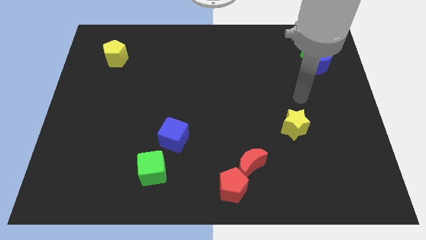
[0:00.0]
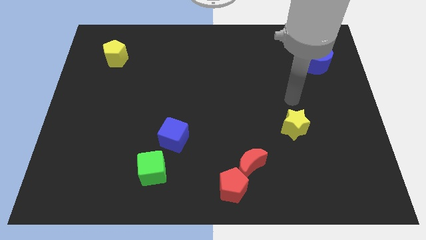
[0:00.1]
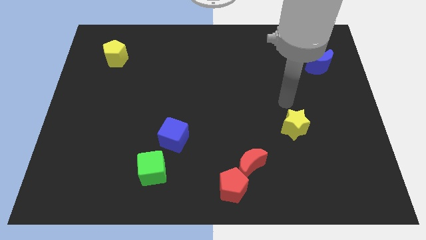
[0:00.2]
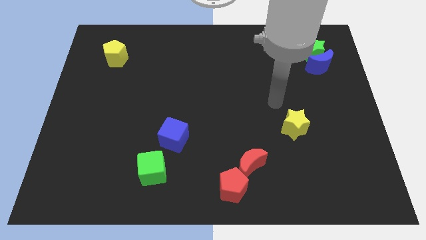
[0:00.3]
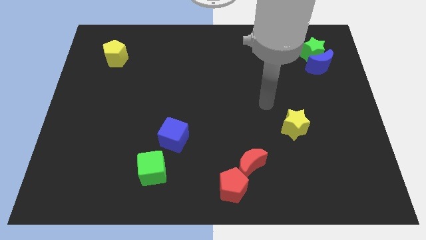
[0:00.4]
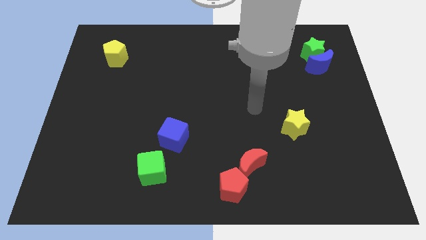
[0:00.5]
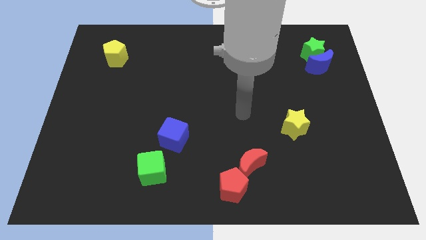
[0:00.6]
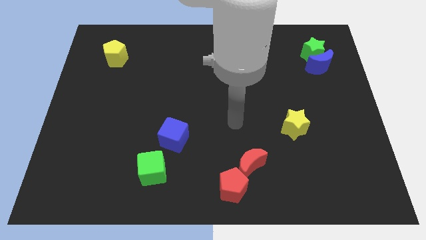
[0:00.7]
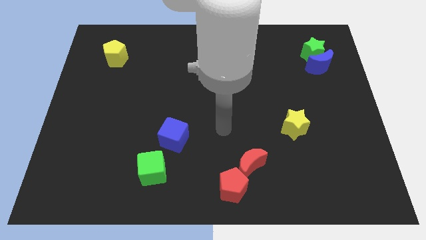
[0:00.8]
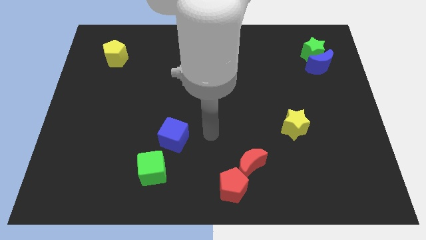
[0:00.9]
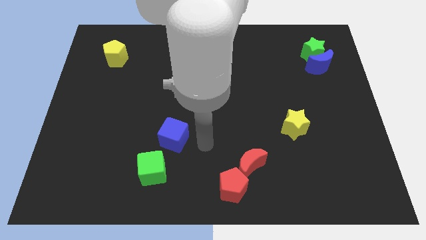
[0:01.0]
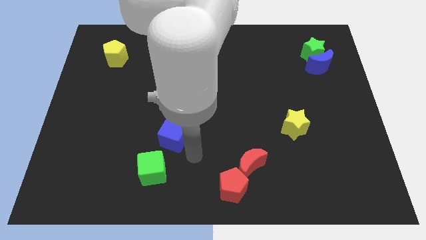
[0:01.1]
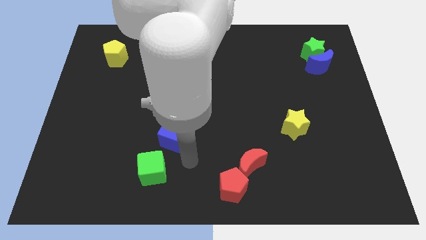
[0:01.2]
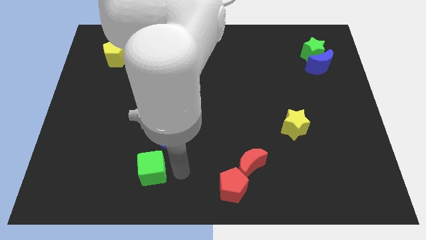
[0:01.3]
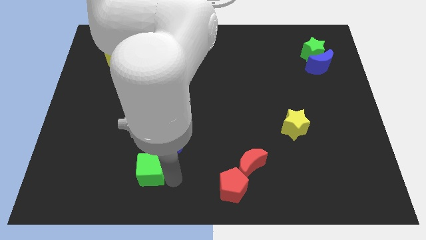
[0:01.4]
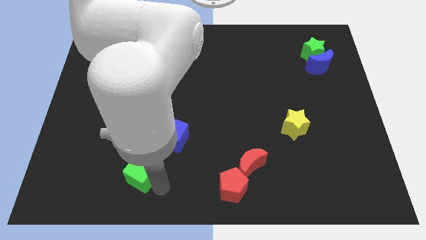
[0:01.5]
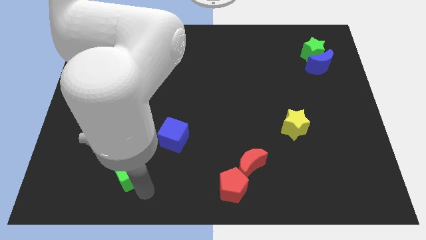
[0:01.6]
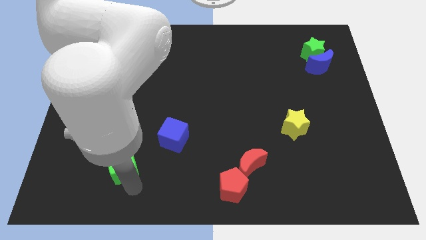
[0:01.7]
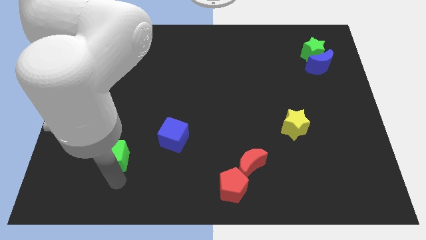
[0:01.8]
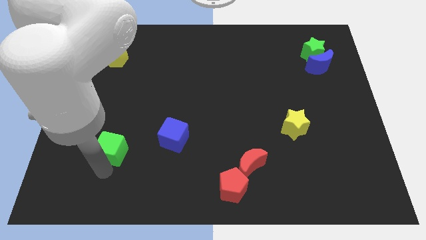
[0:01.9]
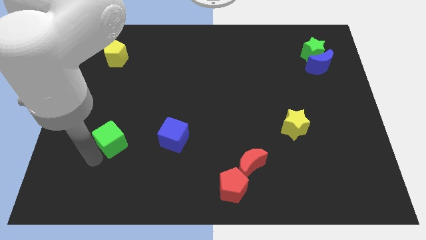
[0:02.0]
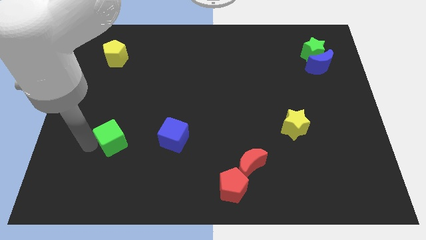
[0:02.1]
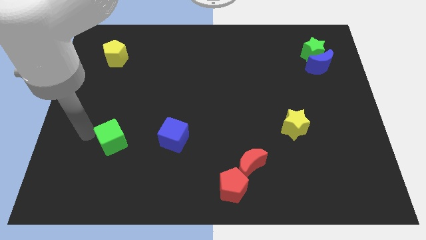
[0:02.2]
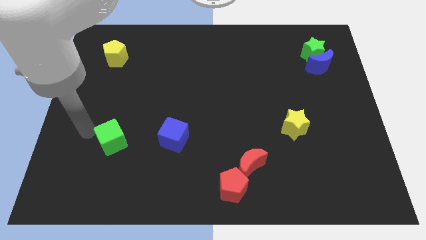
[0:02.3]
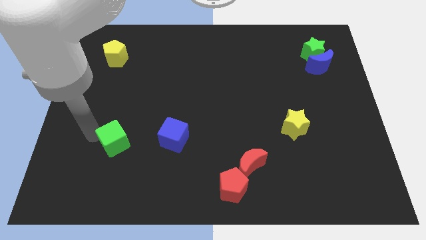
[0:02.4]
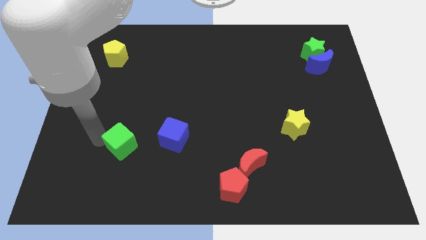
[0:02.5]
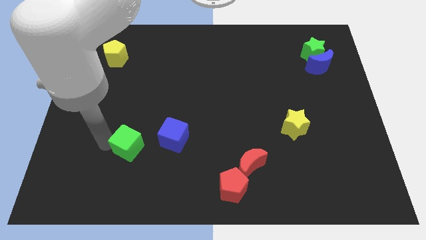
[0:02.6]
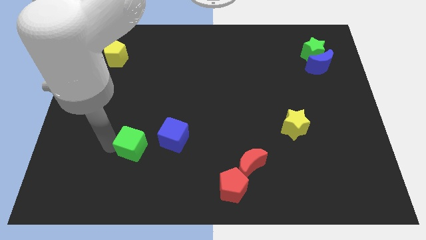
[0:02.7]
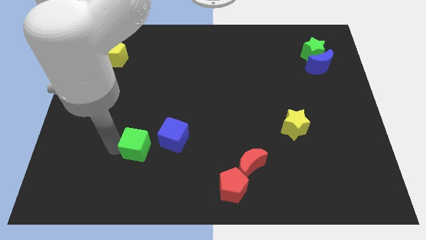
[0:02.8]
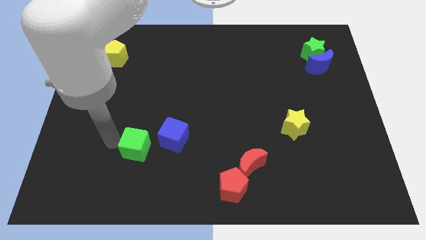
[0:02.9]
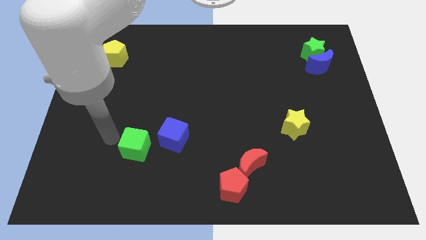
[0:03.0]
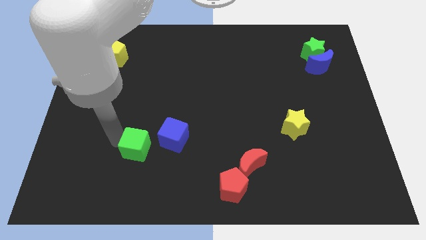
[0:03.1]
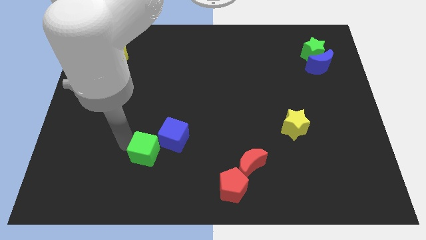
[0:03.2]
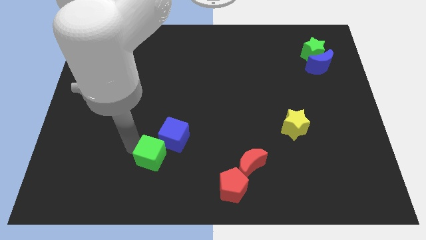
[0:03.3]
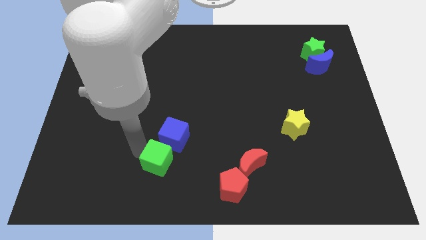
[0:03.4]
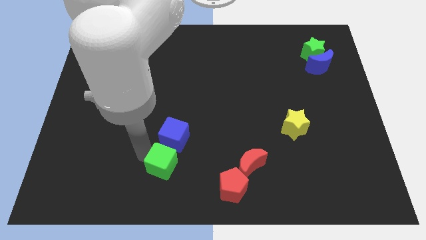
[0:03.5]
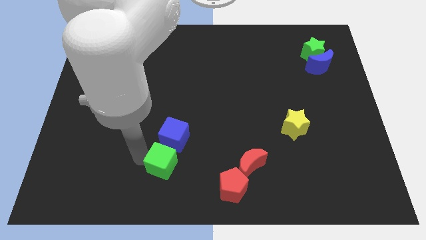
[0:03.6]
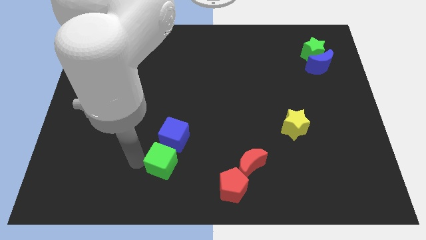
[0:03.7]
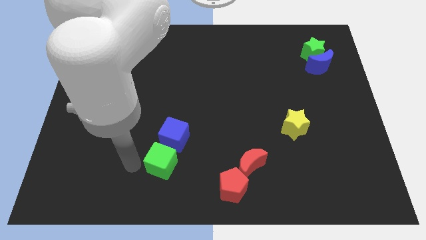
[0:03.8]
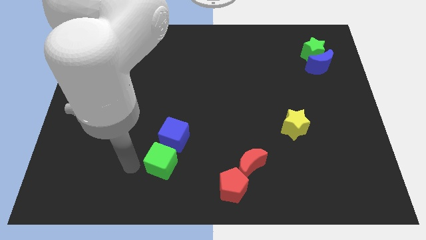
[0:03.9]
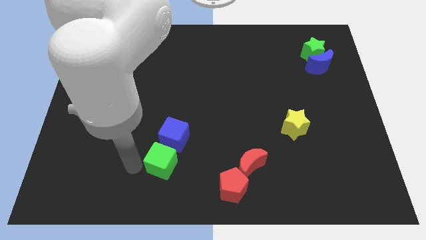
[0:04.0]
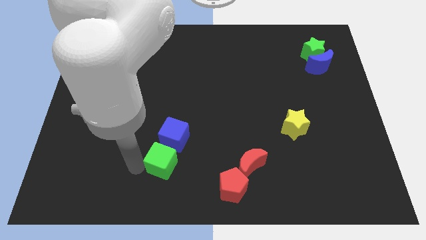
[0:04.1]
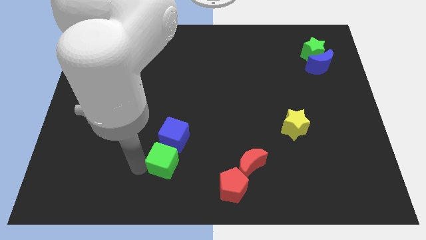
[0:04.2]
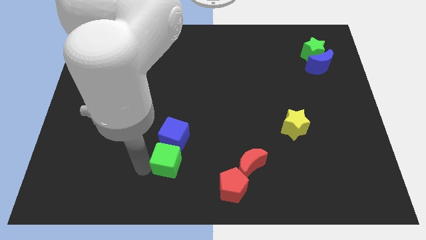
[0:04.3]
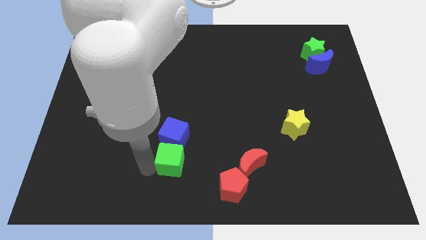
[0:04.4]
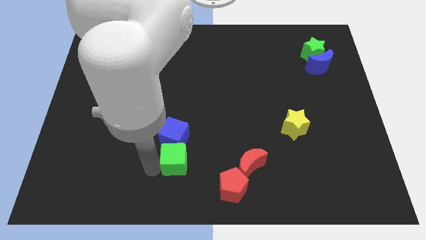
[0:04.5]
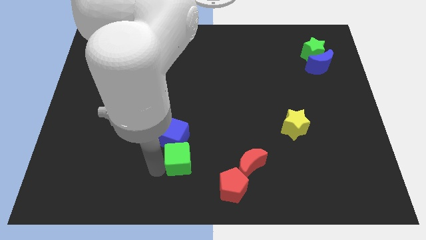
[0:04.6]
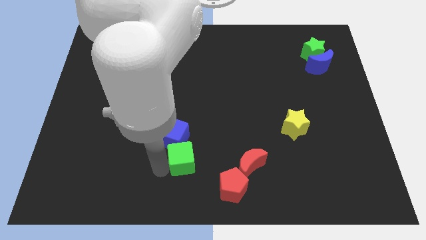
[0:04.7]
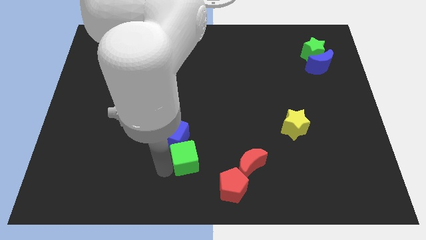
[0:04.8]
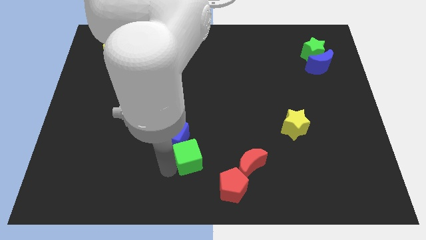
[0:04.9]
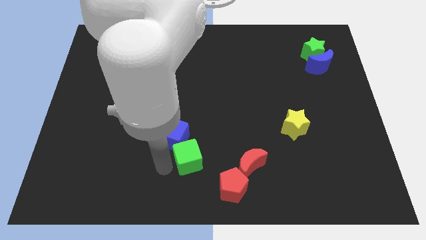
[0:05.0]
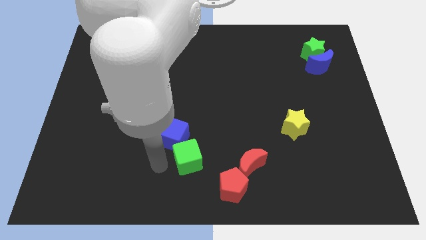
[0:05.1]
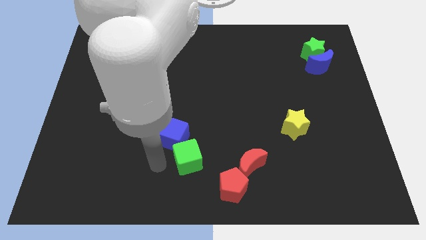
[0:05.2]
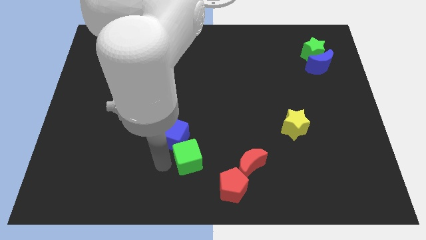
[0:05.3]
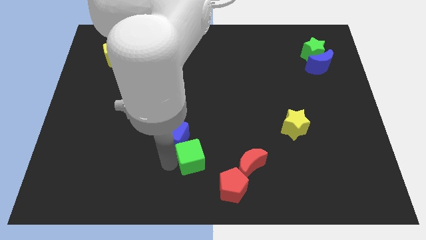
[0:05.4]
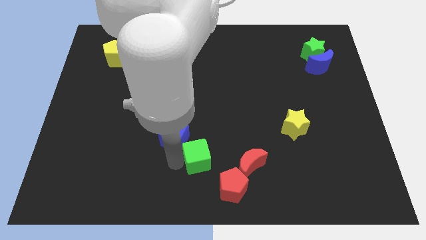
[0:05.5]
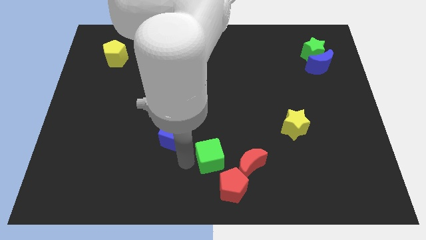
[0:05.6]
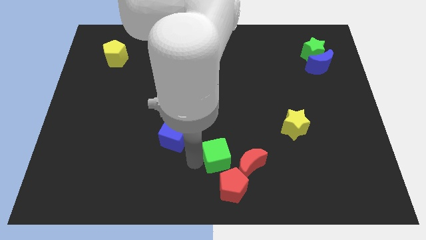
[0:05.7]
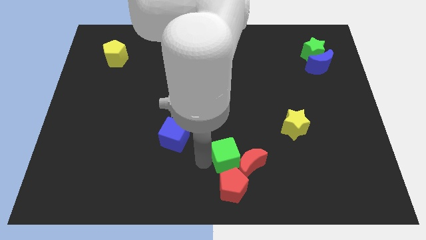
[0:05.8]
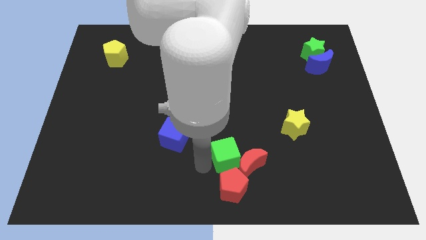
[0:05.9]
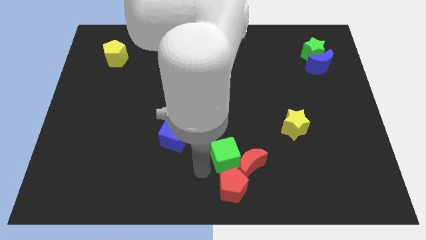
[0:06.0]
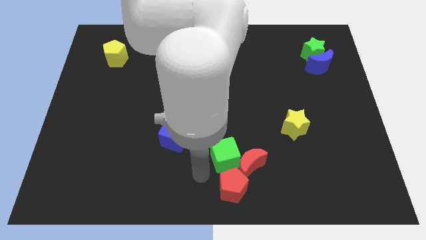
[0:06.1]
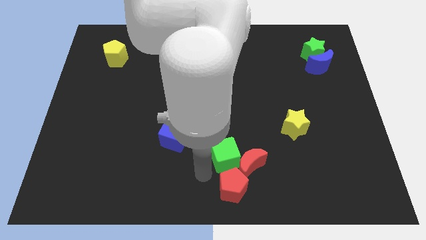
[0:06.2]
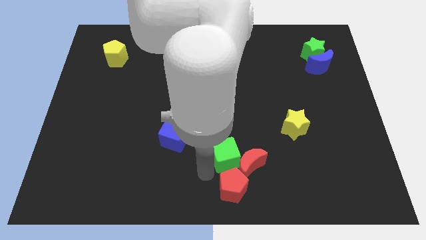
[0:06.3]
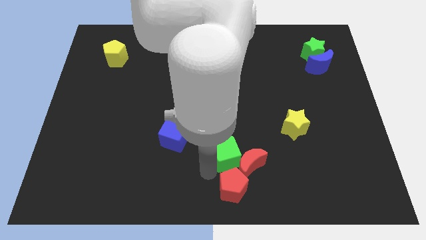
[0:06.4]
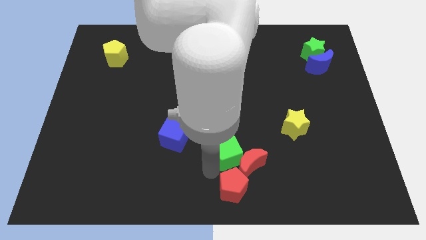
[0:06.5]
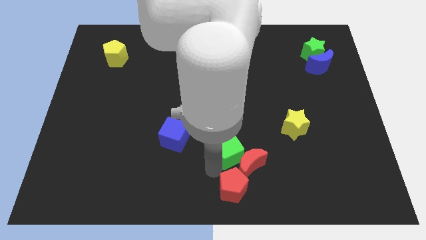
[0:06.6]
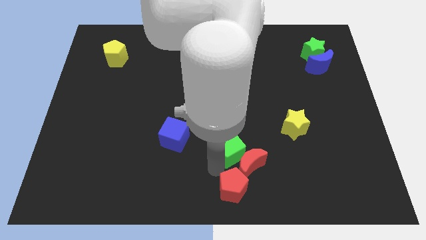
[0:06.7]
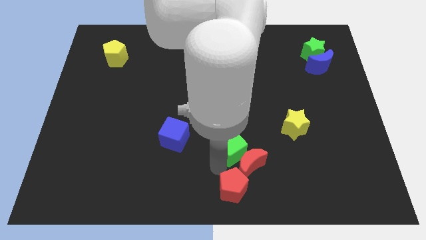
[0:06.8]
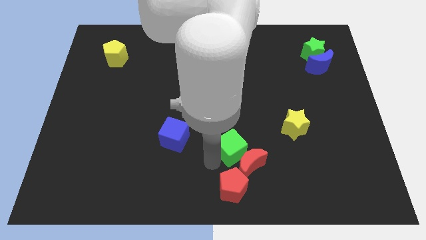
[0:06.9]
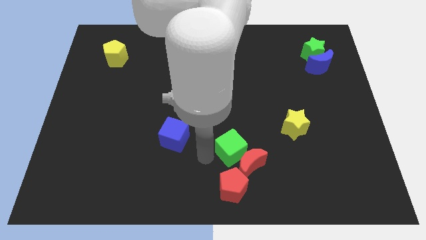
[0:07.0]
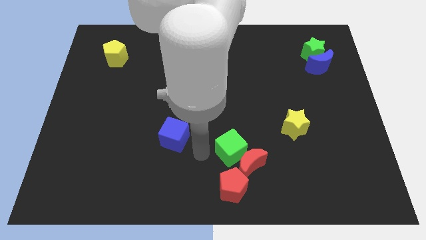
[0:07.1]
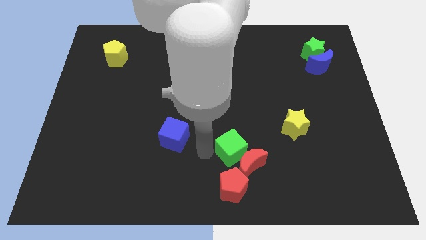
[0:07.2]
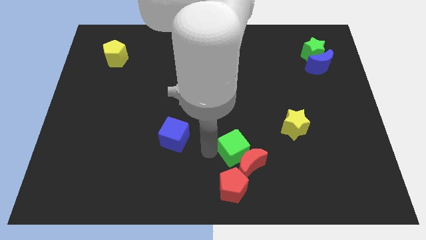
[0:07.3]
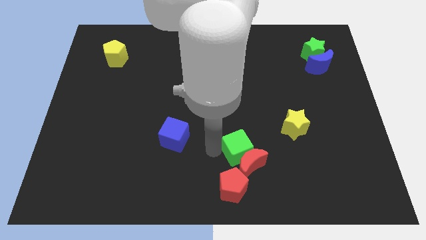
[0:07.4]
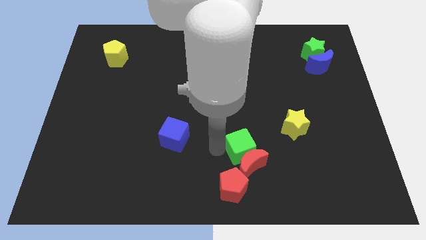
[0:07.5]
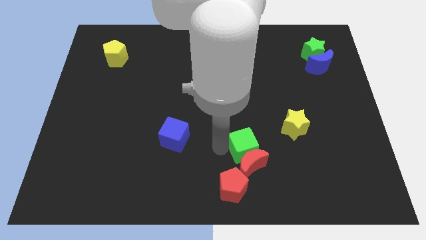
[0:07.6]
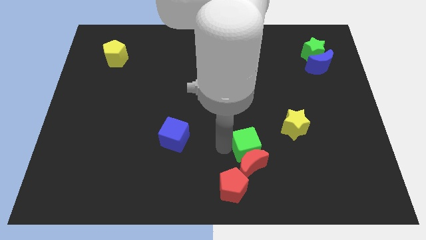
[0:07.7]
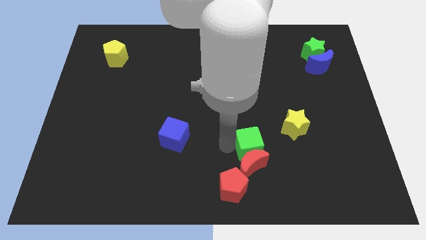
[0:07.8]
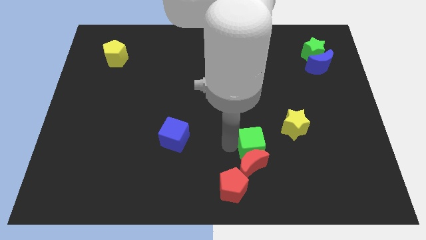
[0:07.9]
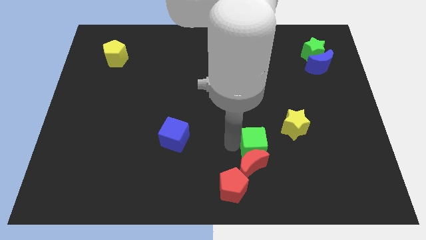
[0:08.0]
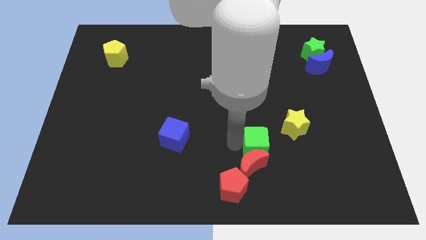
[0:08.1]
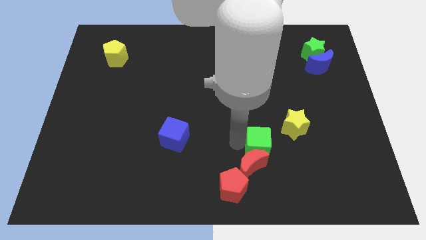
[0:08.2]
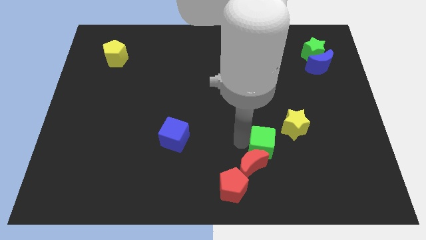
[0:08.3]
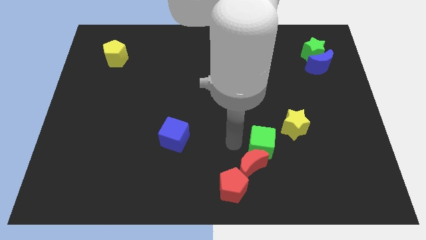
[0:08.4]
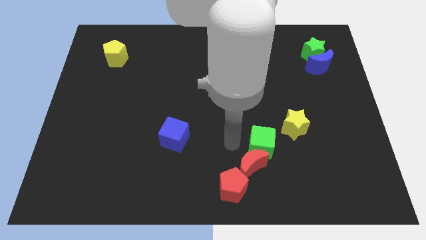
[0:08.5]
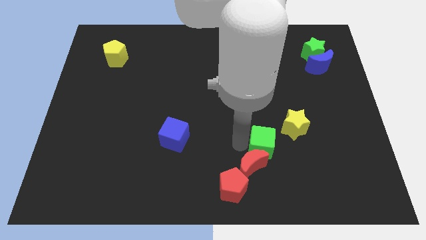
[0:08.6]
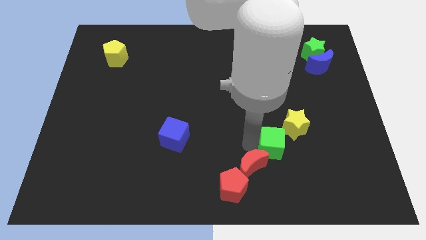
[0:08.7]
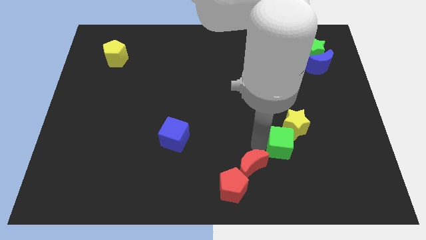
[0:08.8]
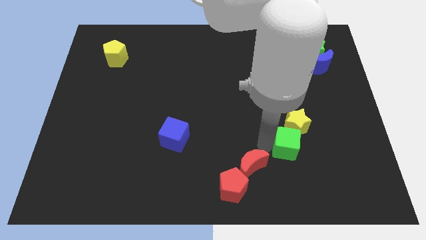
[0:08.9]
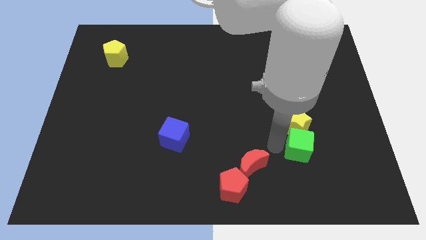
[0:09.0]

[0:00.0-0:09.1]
move the green cube to the bottom right of the yellow star
